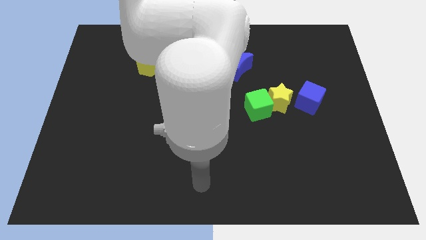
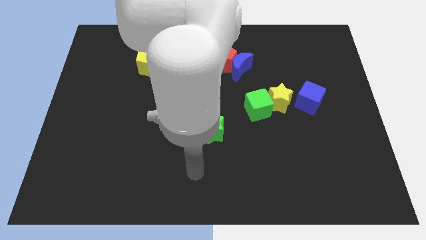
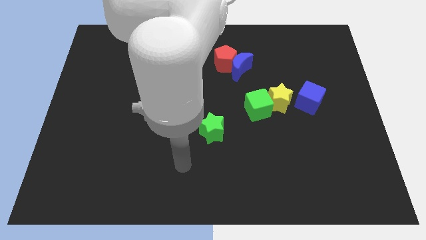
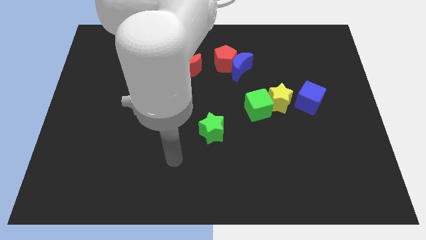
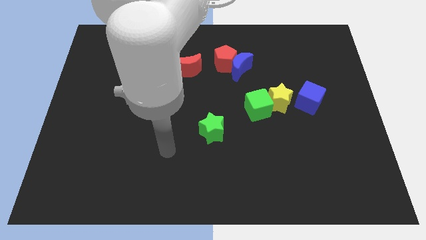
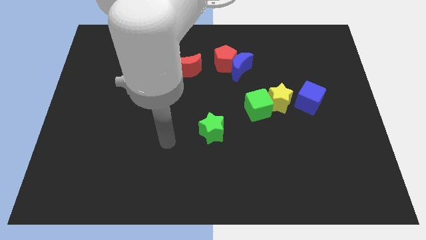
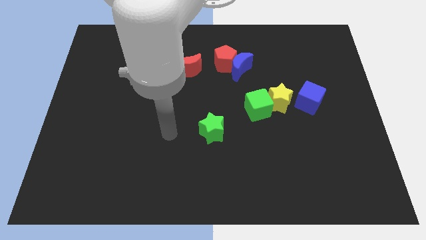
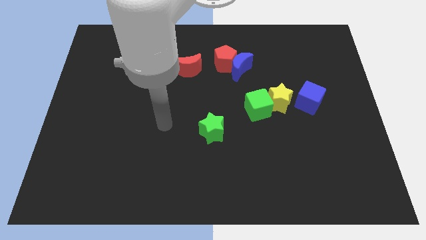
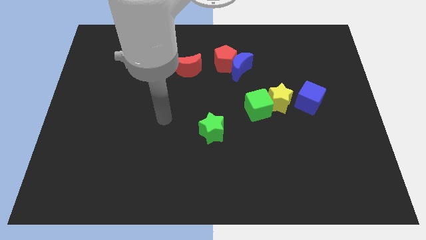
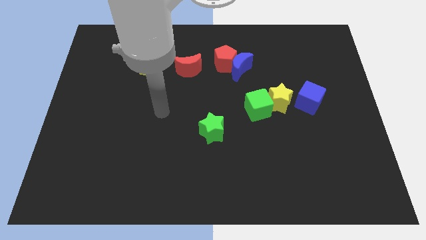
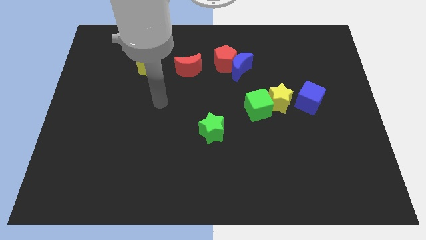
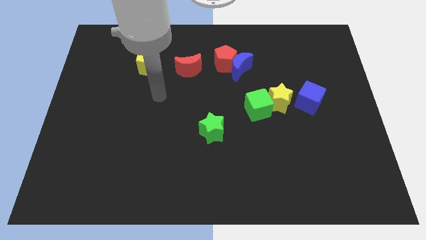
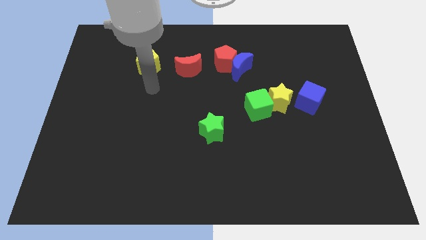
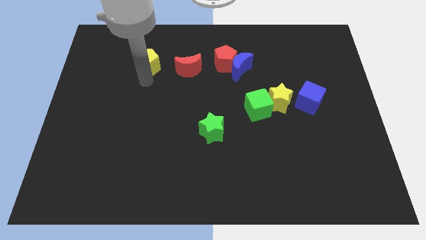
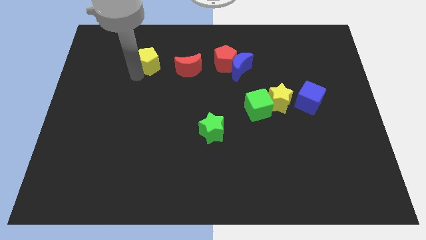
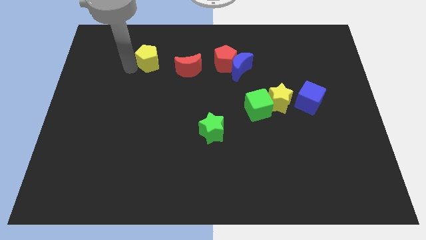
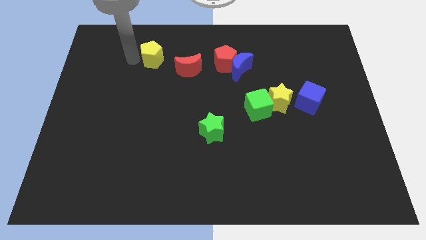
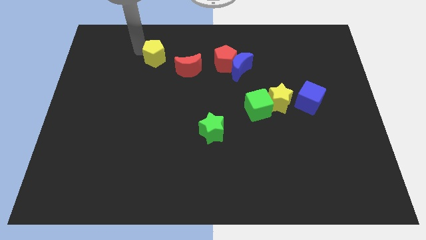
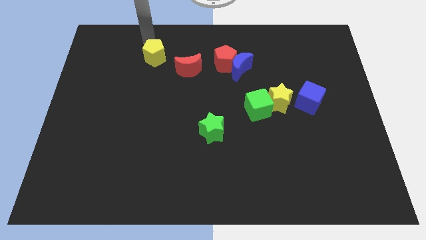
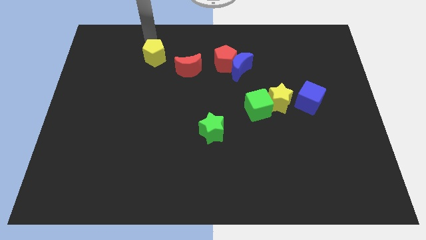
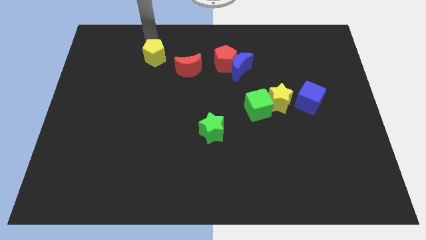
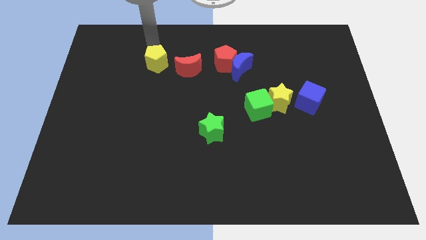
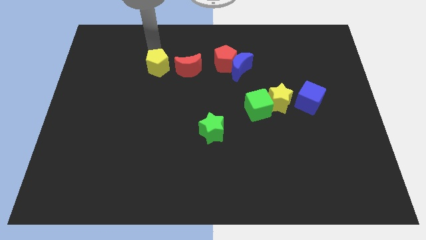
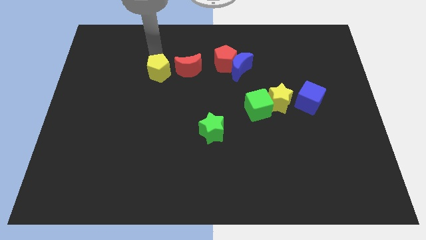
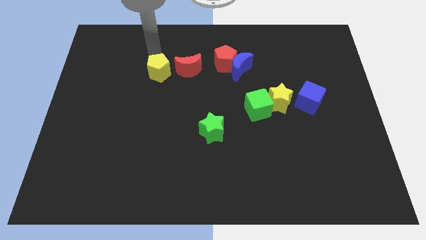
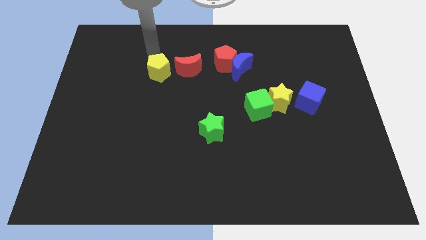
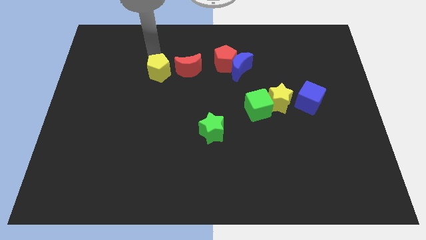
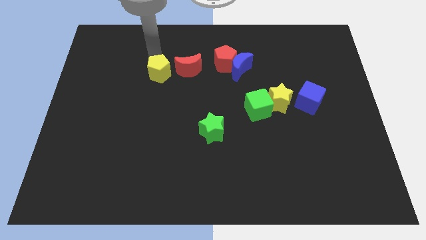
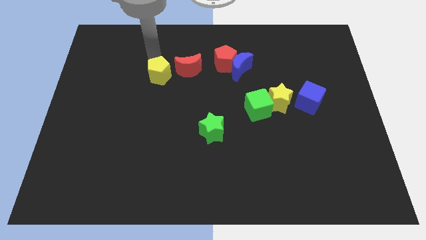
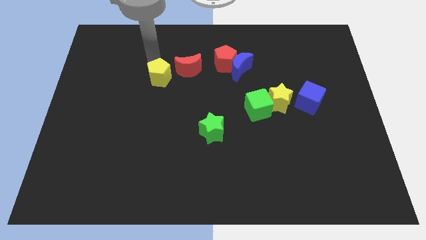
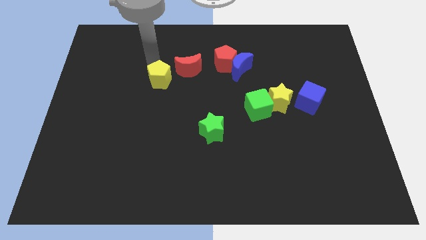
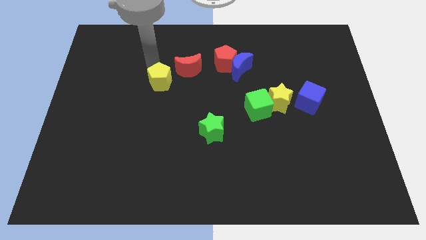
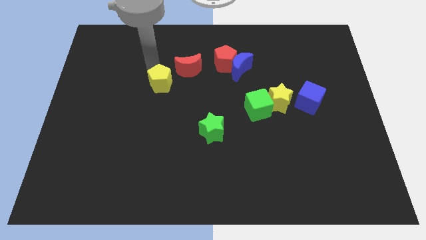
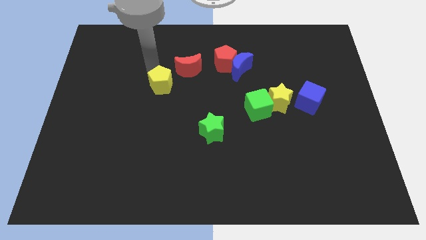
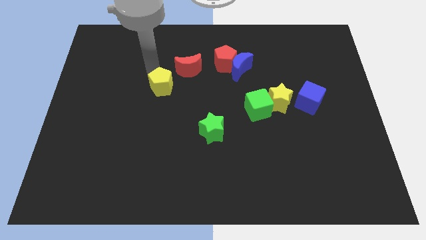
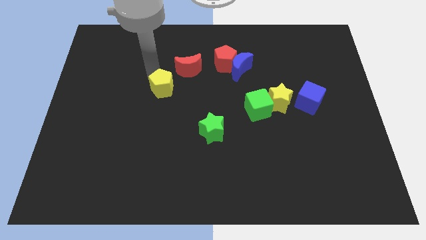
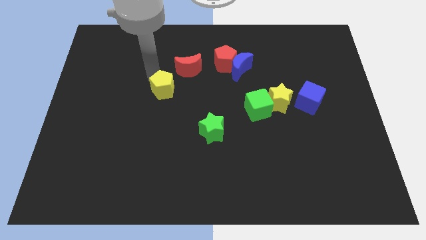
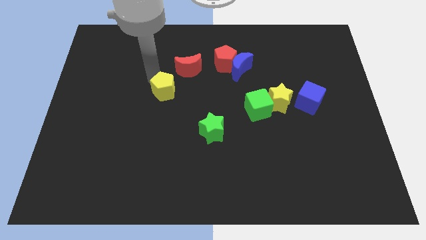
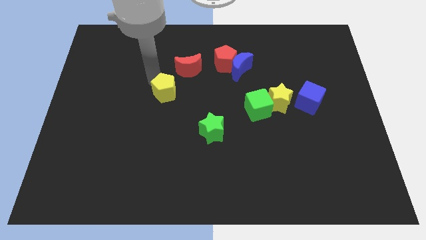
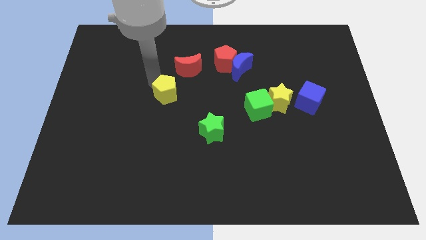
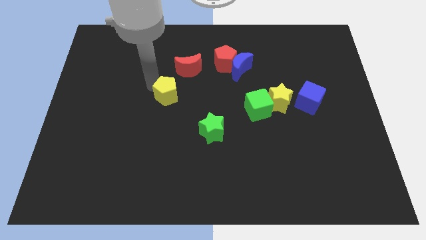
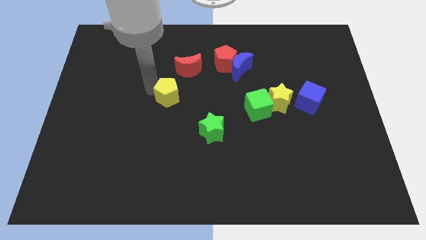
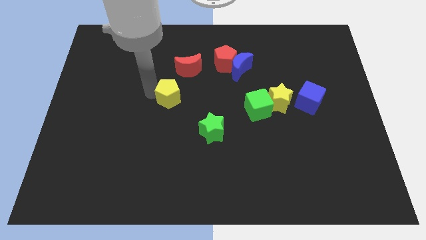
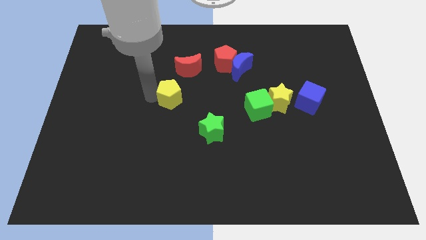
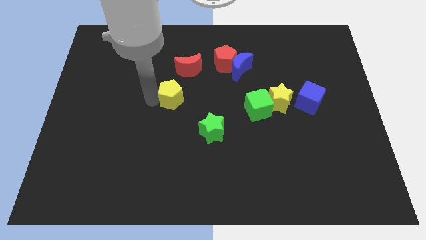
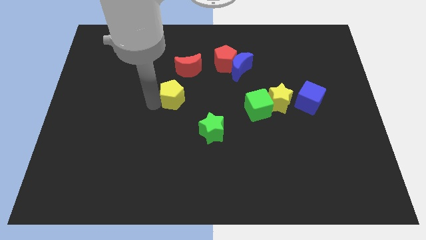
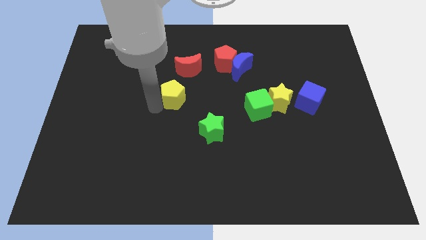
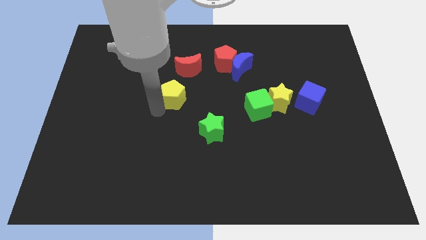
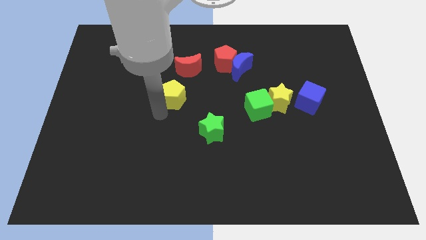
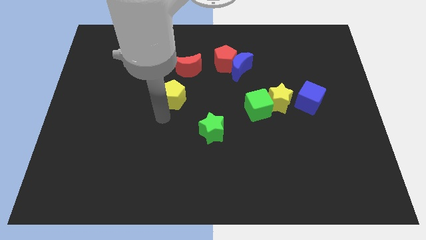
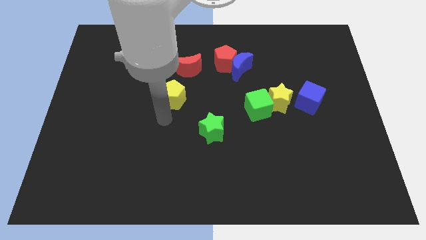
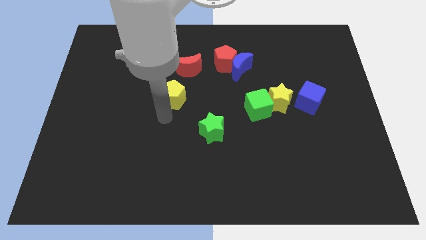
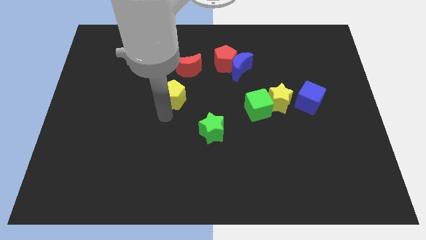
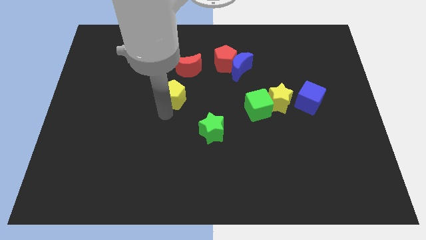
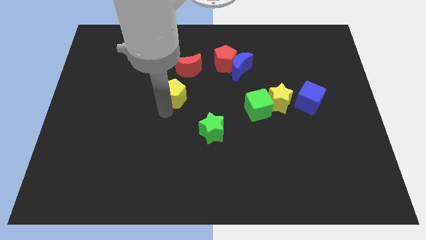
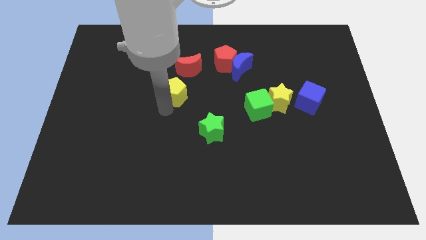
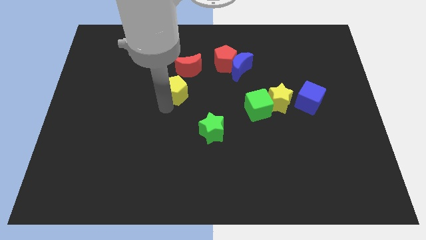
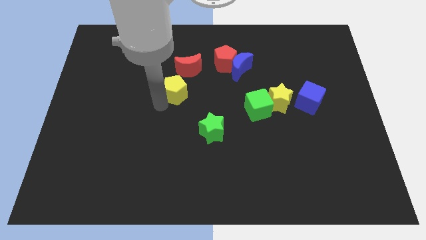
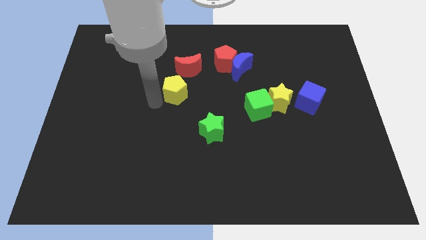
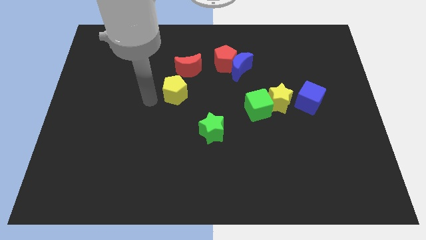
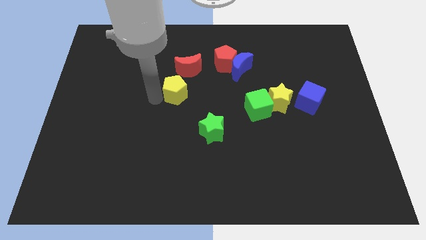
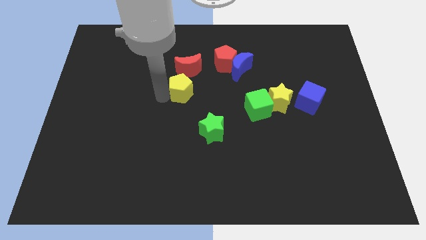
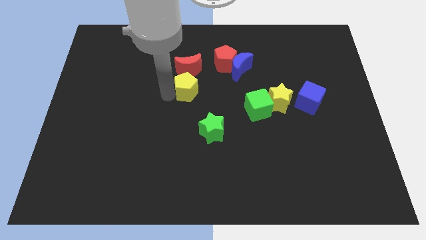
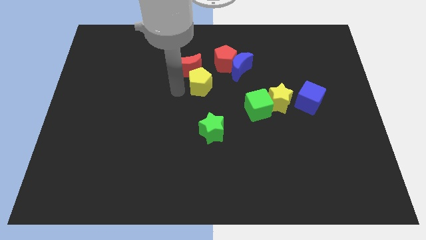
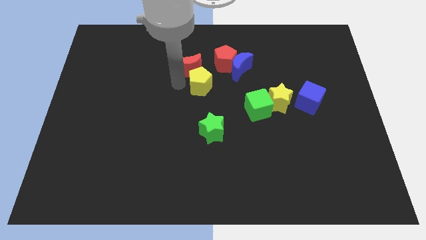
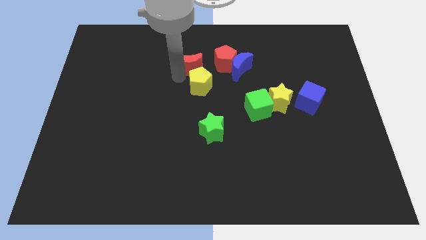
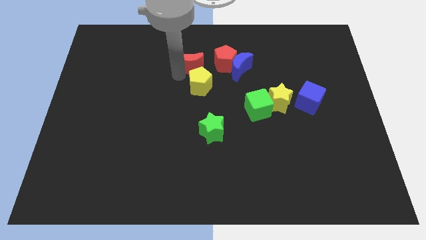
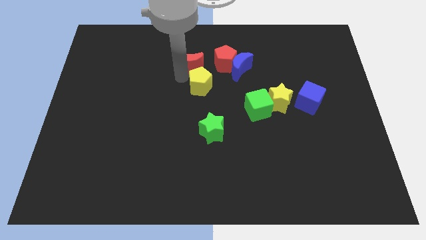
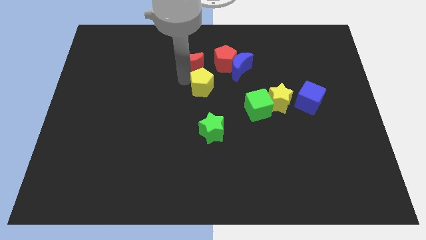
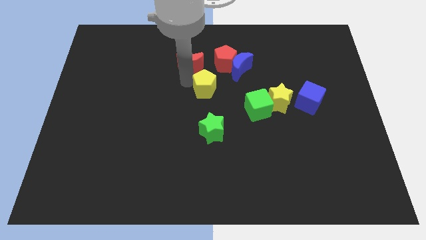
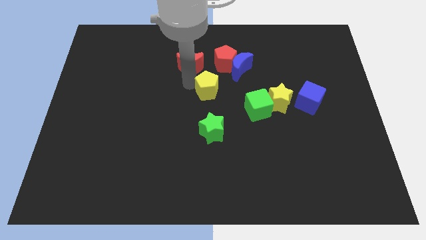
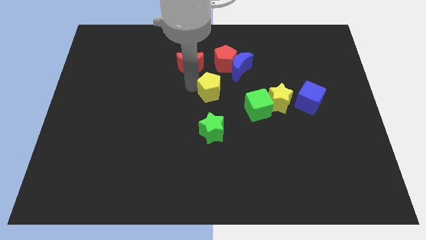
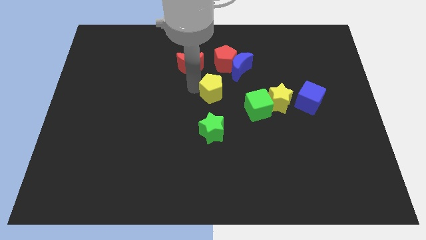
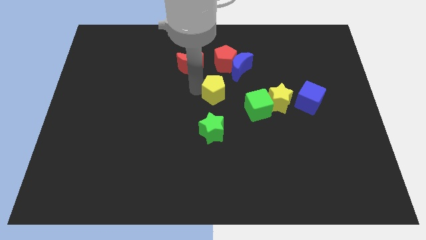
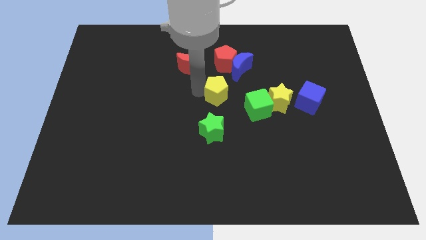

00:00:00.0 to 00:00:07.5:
put the yellow pentagon to the left side of the yellow star
